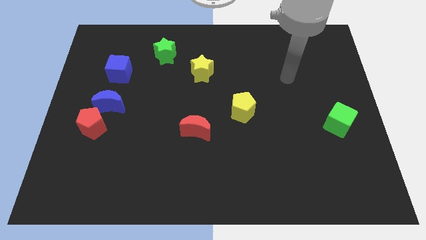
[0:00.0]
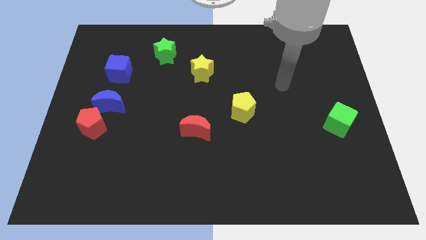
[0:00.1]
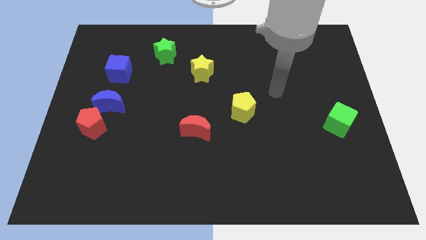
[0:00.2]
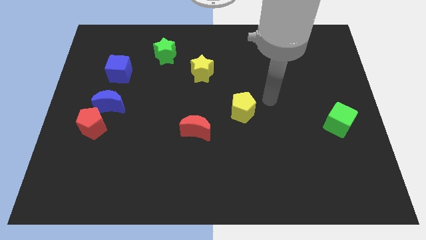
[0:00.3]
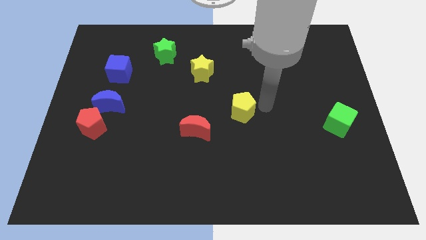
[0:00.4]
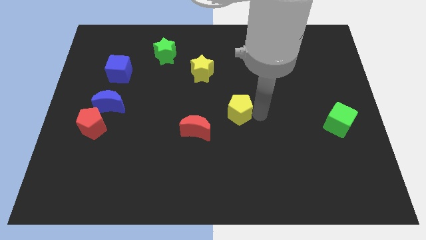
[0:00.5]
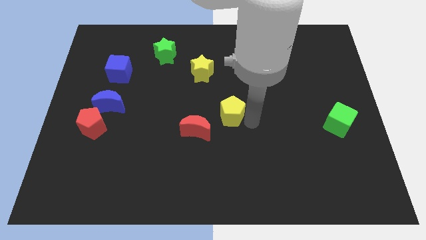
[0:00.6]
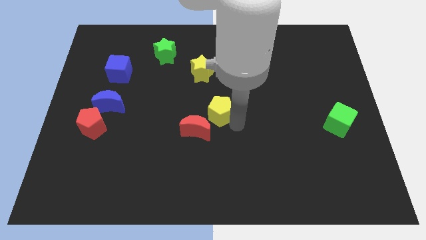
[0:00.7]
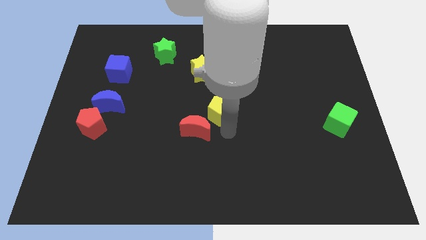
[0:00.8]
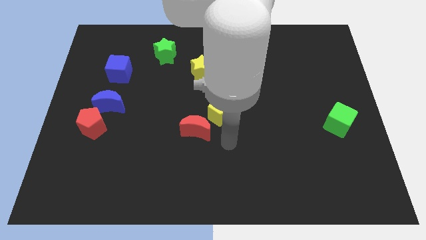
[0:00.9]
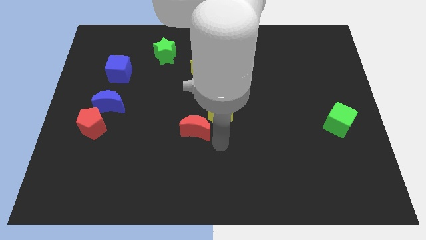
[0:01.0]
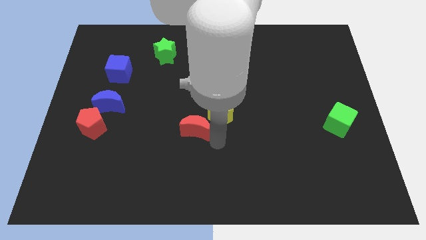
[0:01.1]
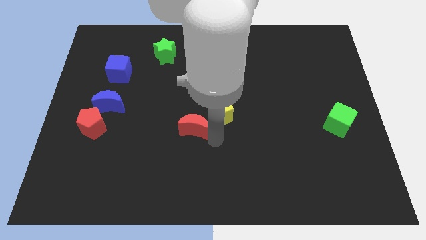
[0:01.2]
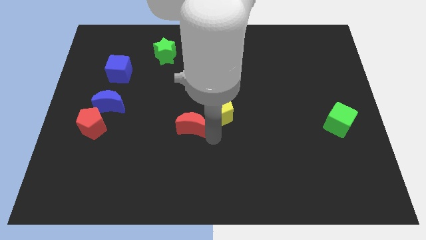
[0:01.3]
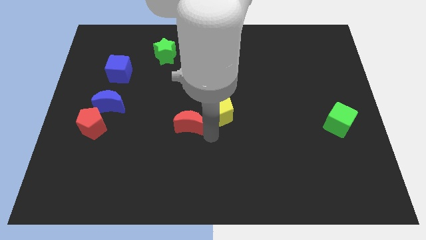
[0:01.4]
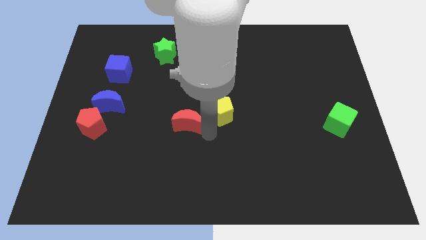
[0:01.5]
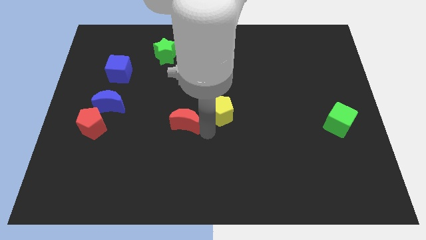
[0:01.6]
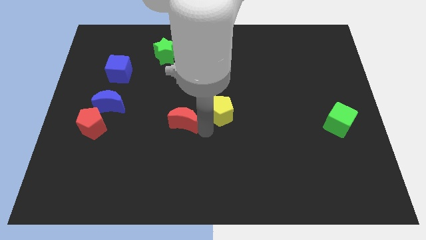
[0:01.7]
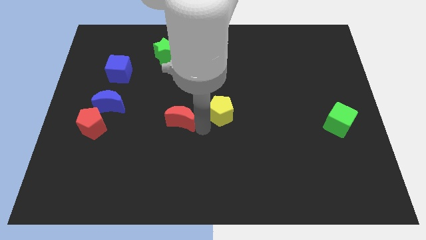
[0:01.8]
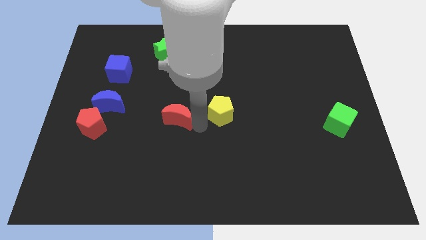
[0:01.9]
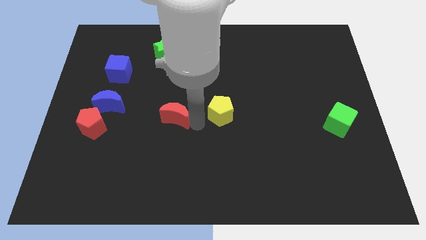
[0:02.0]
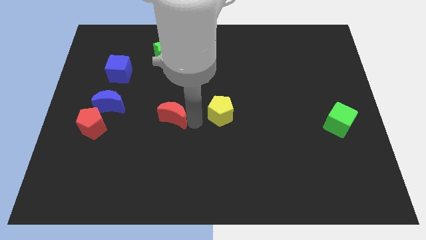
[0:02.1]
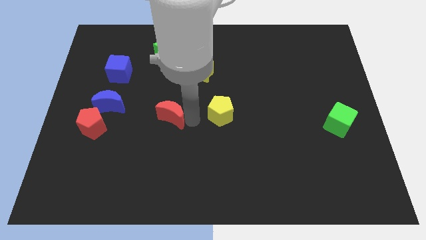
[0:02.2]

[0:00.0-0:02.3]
slide the red moon upwards and to the left a little bit

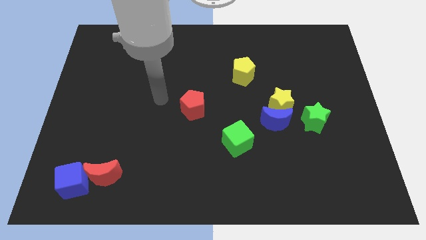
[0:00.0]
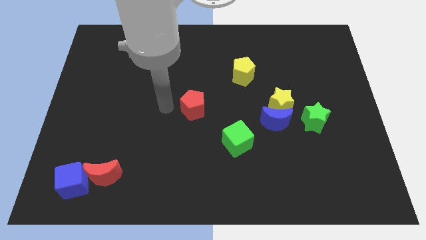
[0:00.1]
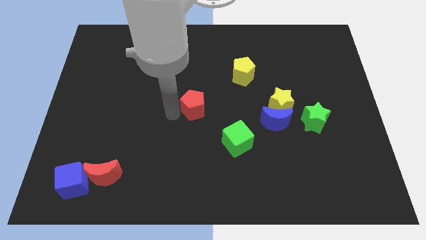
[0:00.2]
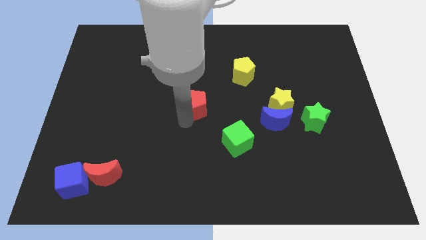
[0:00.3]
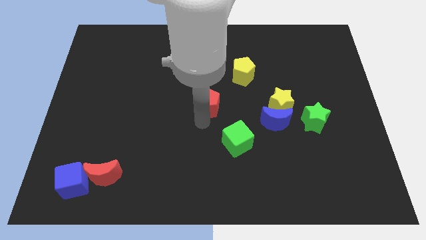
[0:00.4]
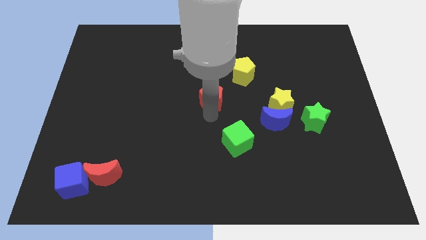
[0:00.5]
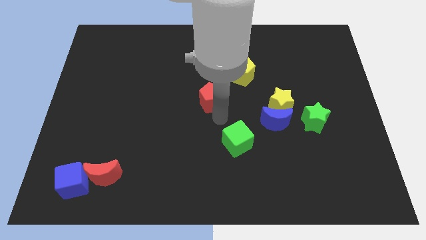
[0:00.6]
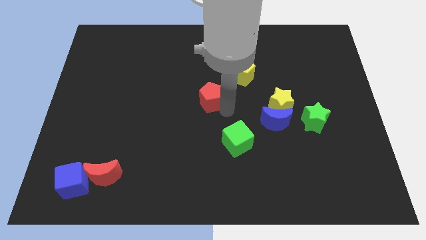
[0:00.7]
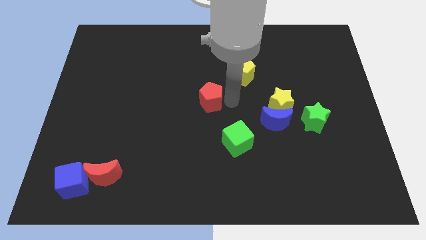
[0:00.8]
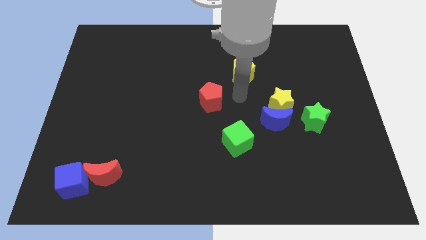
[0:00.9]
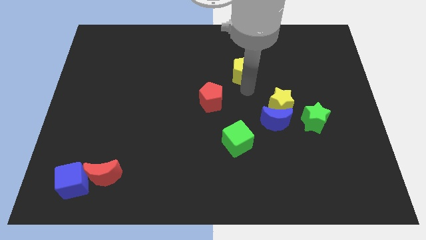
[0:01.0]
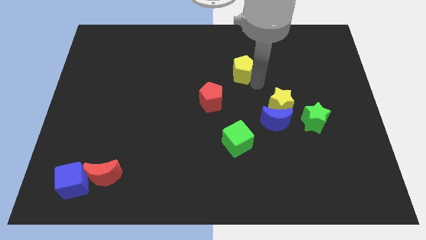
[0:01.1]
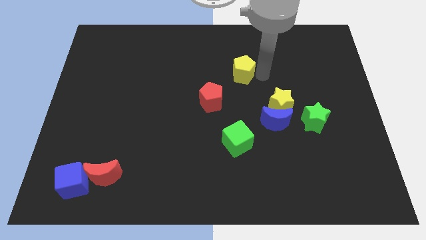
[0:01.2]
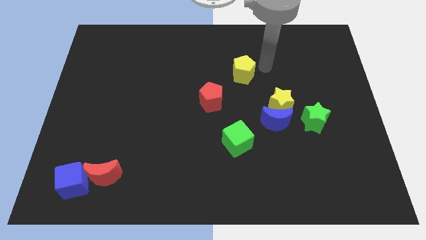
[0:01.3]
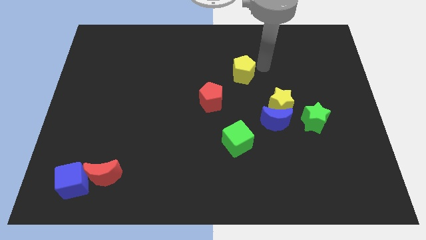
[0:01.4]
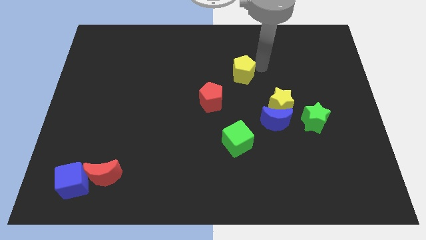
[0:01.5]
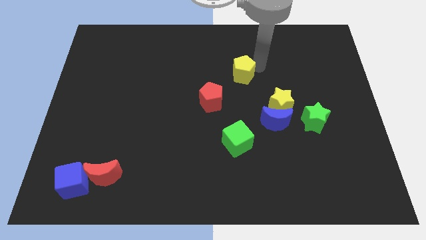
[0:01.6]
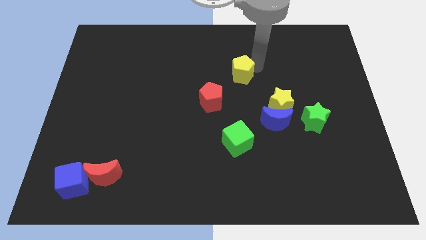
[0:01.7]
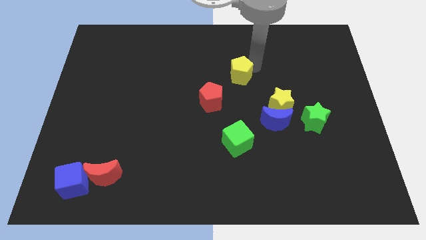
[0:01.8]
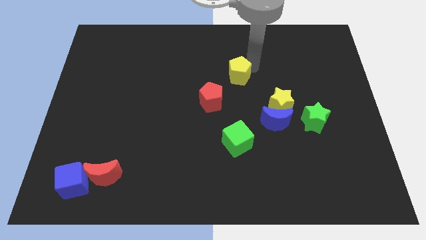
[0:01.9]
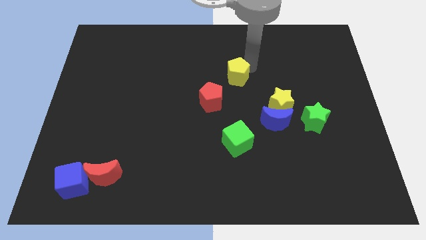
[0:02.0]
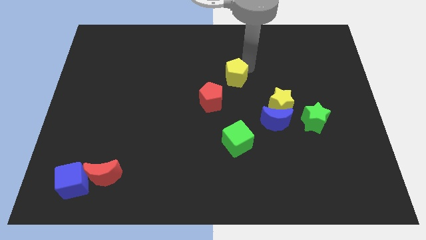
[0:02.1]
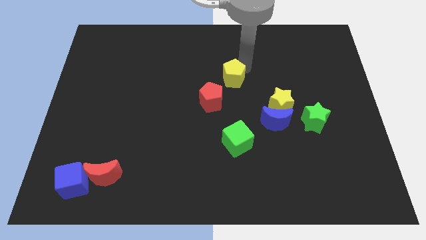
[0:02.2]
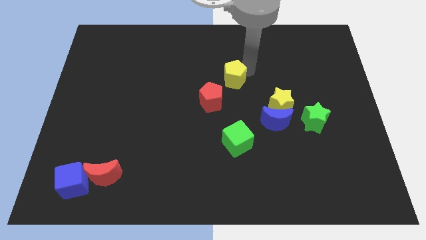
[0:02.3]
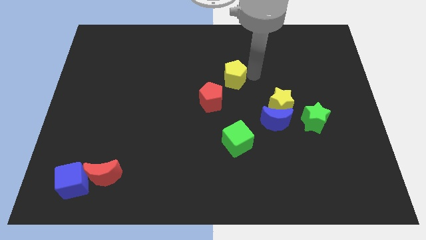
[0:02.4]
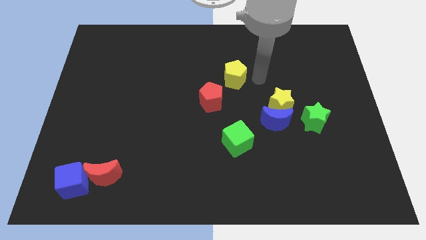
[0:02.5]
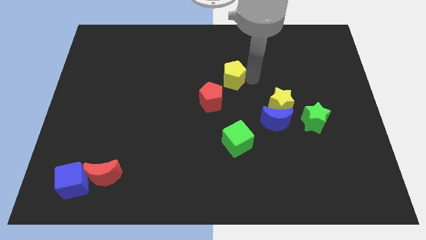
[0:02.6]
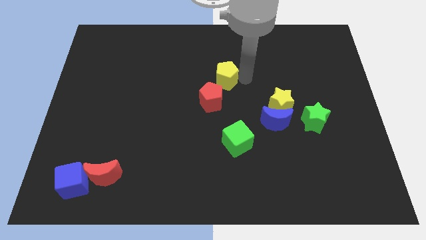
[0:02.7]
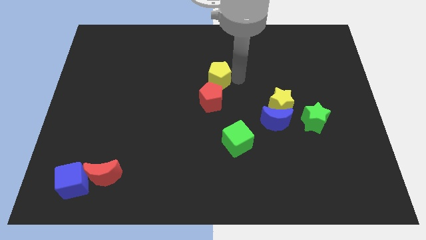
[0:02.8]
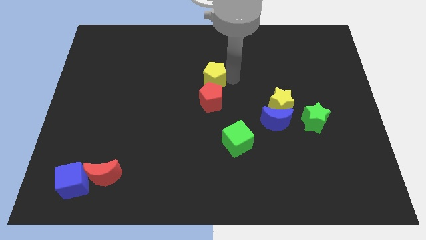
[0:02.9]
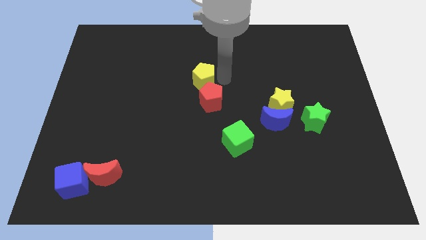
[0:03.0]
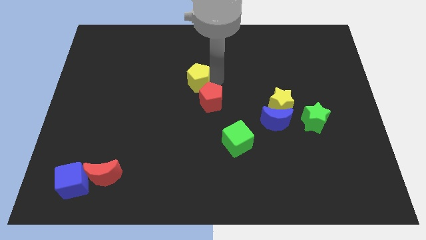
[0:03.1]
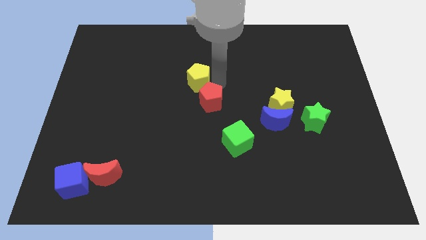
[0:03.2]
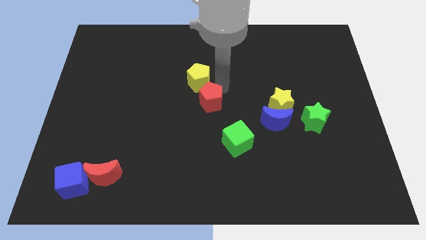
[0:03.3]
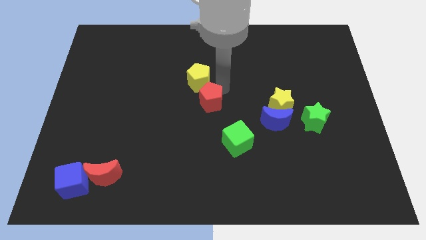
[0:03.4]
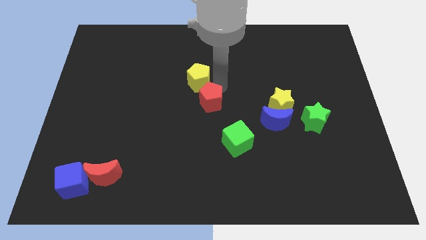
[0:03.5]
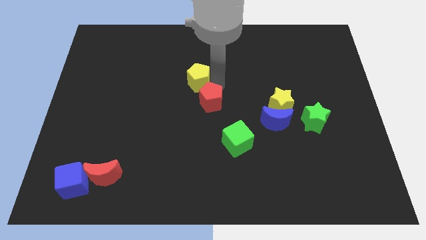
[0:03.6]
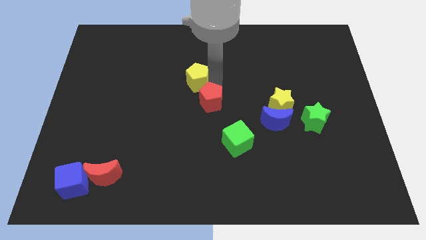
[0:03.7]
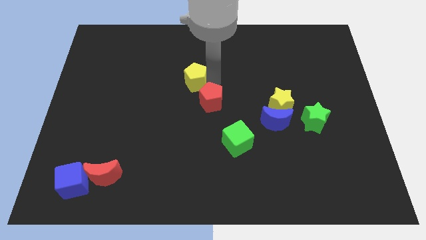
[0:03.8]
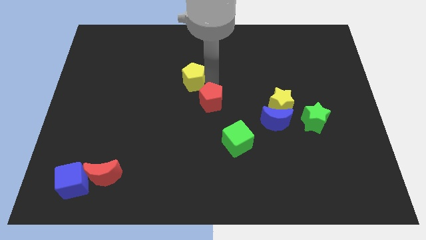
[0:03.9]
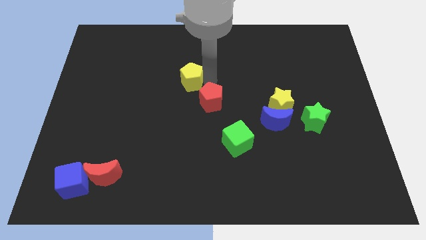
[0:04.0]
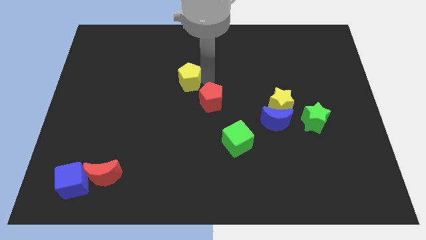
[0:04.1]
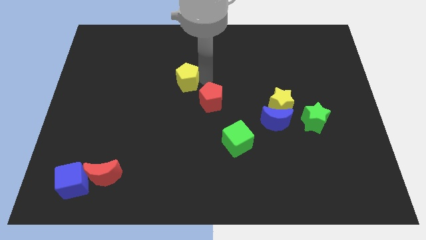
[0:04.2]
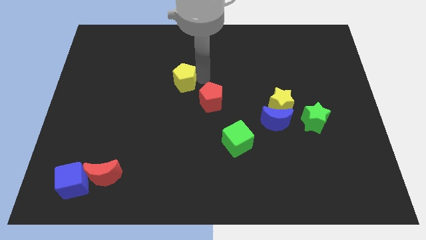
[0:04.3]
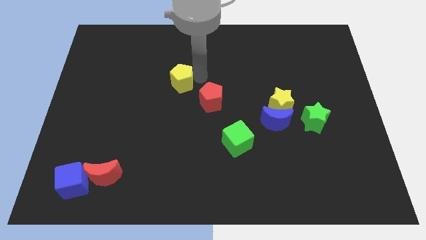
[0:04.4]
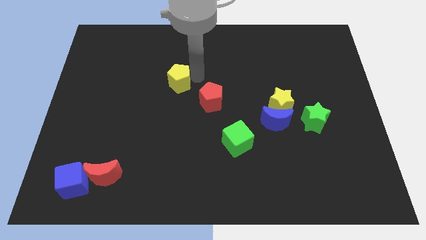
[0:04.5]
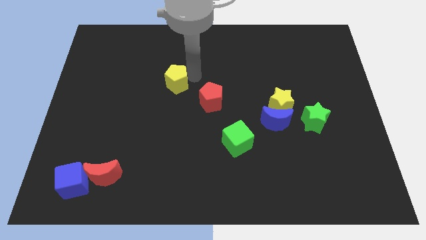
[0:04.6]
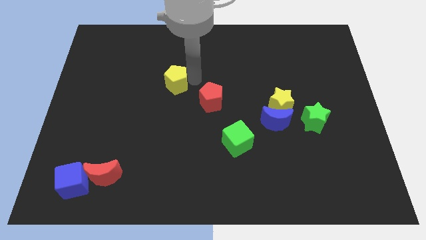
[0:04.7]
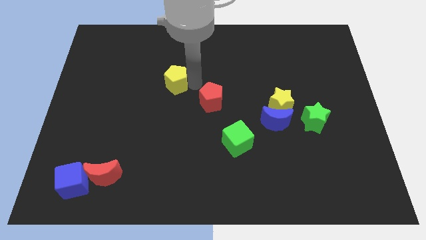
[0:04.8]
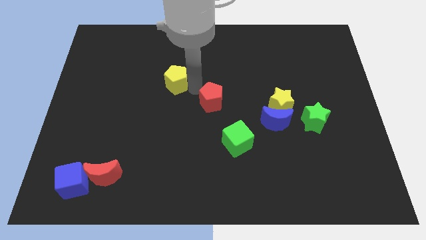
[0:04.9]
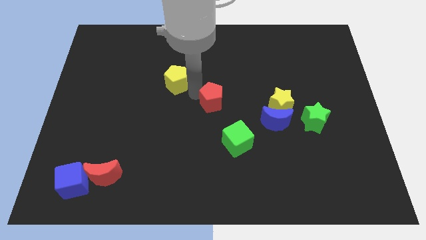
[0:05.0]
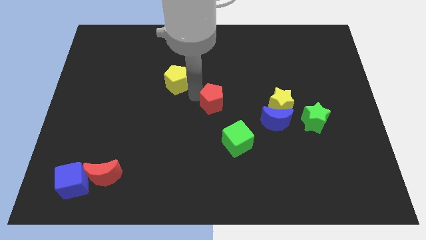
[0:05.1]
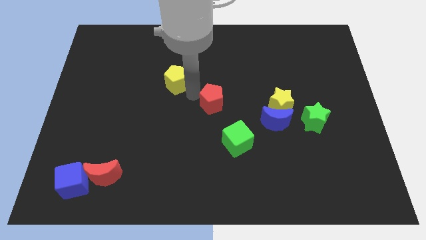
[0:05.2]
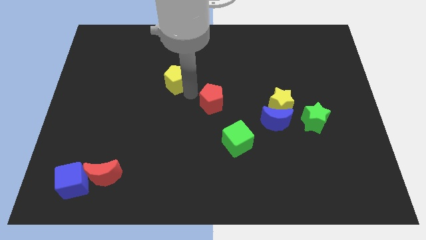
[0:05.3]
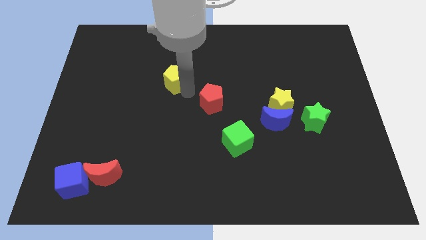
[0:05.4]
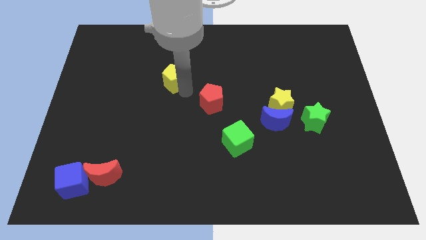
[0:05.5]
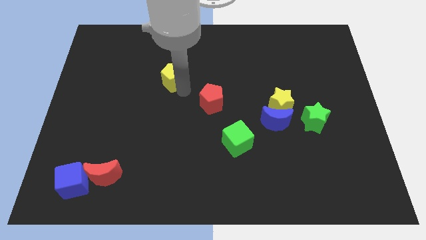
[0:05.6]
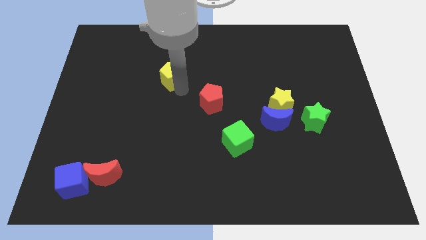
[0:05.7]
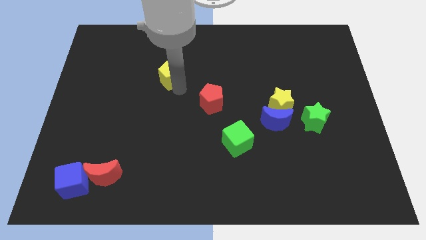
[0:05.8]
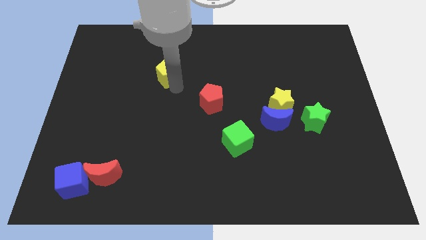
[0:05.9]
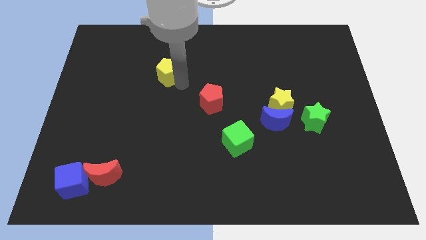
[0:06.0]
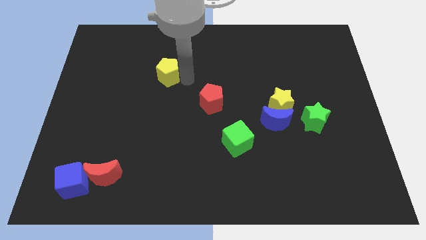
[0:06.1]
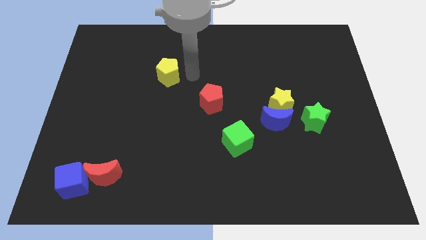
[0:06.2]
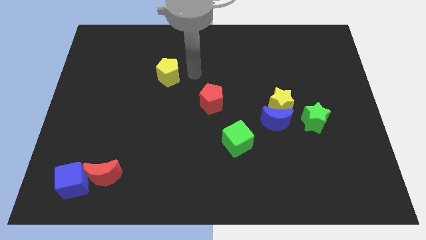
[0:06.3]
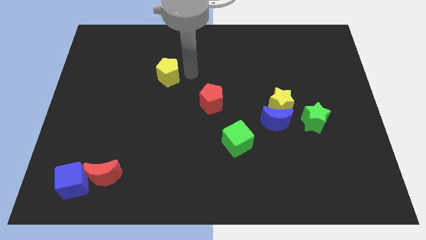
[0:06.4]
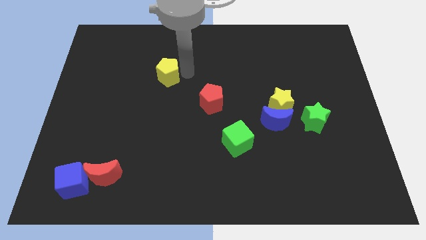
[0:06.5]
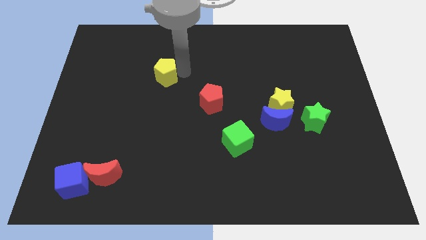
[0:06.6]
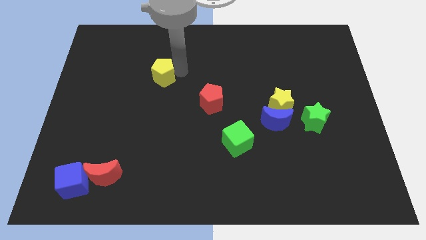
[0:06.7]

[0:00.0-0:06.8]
slide the yellow pentagon to the left
